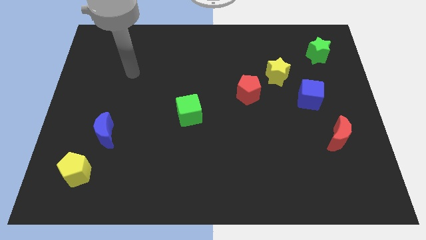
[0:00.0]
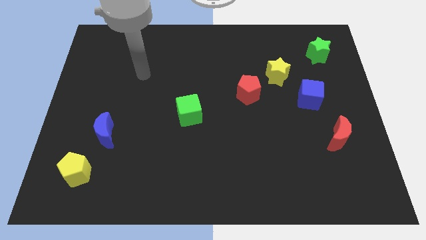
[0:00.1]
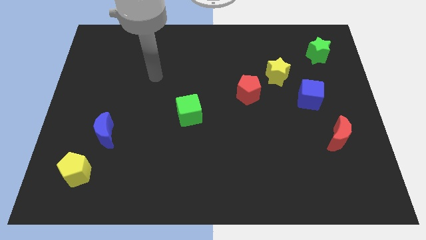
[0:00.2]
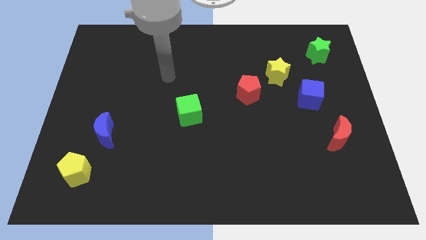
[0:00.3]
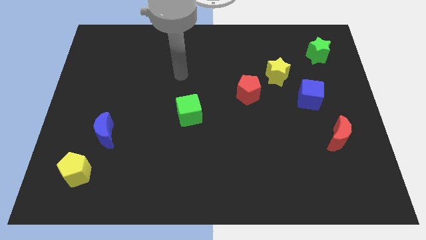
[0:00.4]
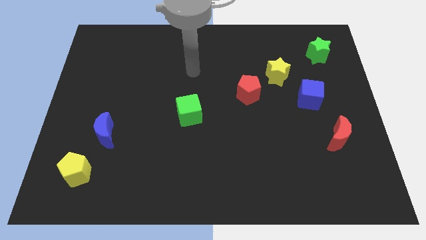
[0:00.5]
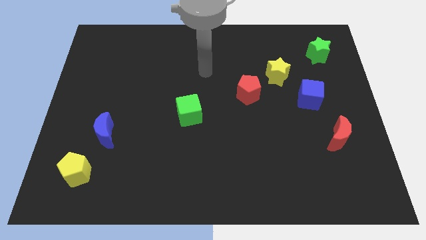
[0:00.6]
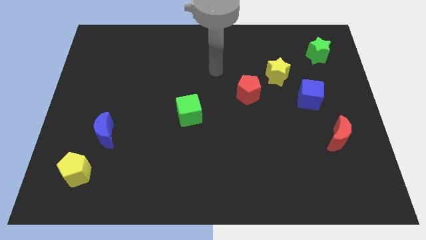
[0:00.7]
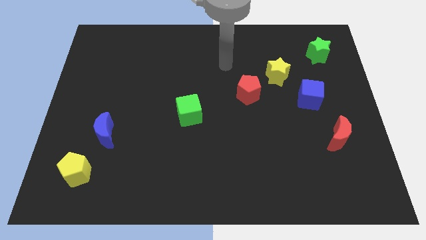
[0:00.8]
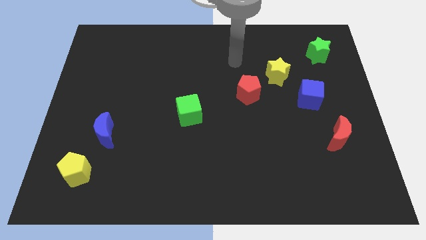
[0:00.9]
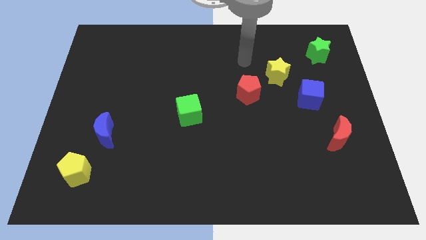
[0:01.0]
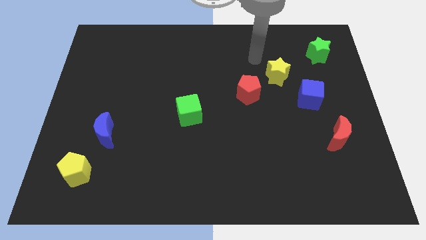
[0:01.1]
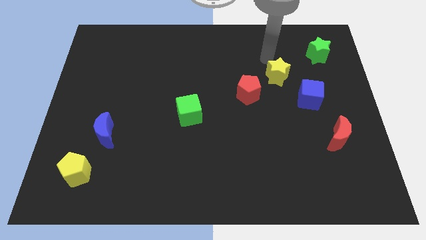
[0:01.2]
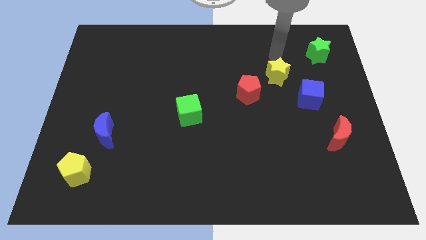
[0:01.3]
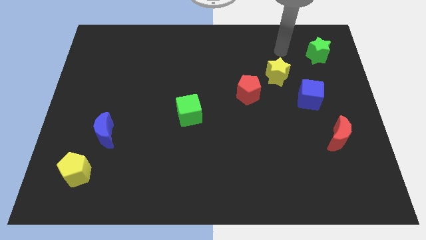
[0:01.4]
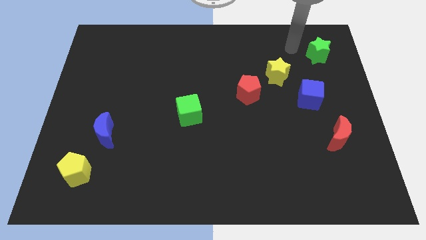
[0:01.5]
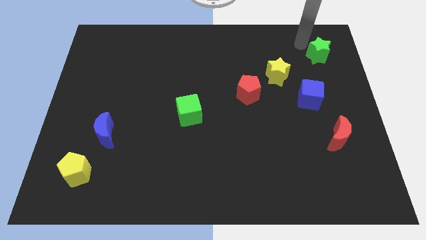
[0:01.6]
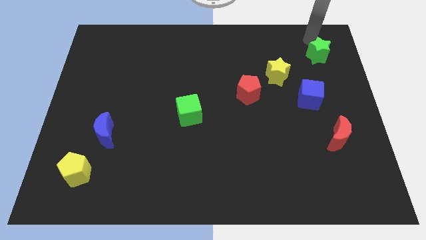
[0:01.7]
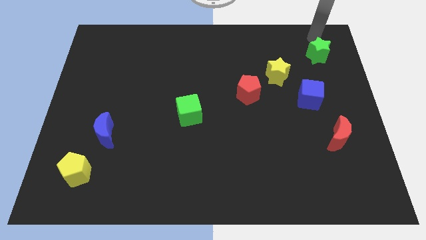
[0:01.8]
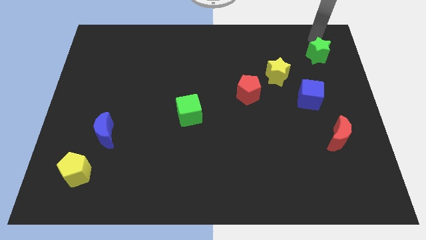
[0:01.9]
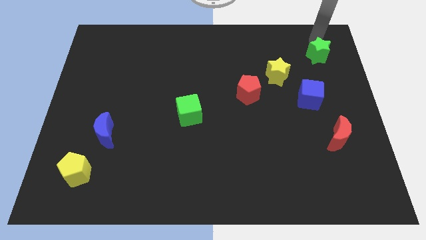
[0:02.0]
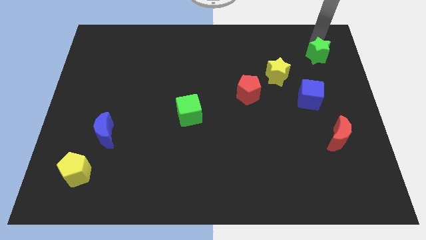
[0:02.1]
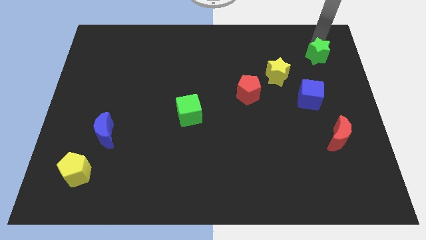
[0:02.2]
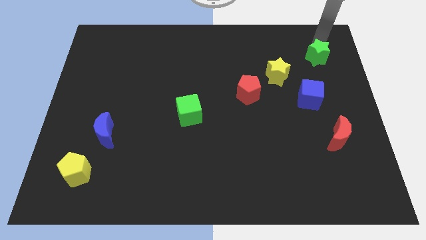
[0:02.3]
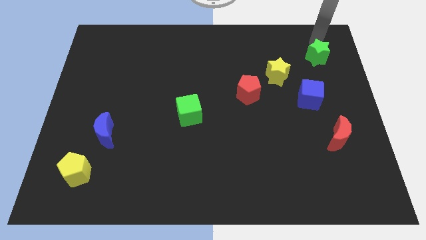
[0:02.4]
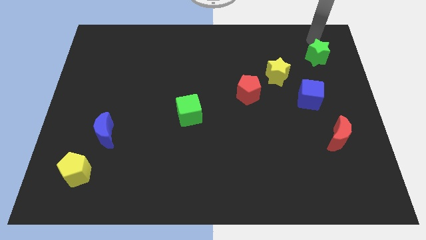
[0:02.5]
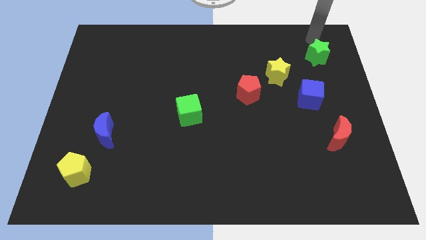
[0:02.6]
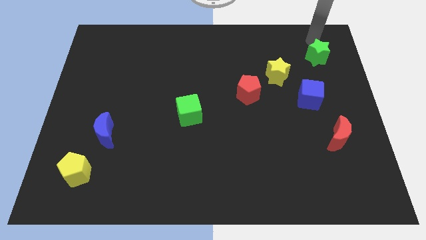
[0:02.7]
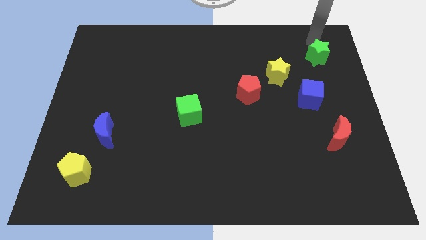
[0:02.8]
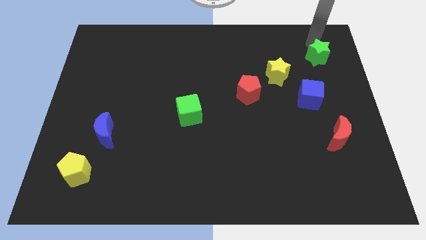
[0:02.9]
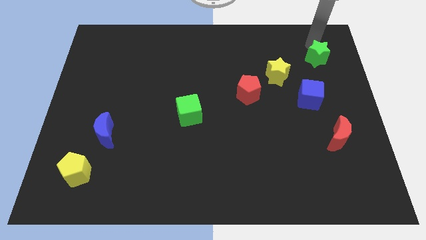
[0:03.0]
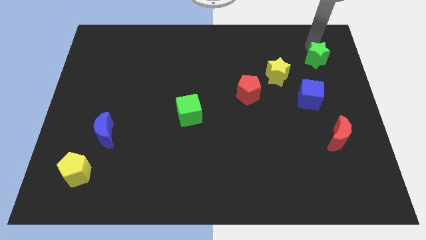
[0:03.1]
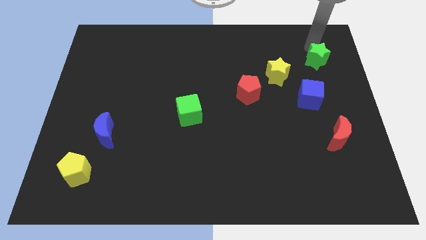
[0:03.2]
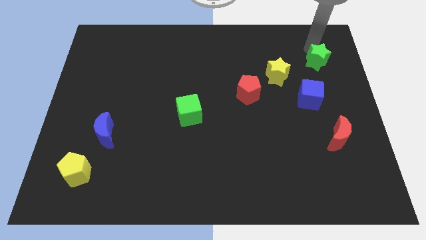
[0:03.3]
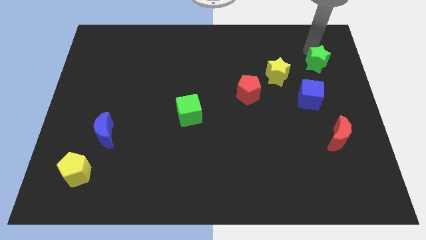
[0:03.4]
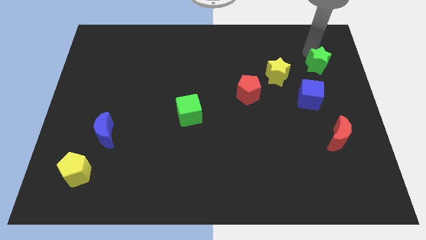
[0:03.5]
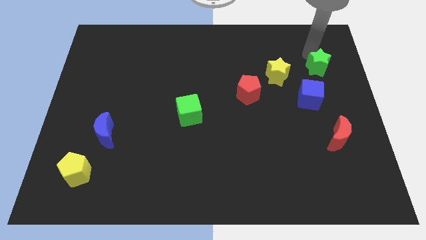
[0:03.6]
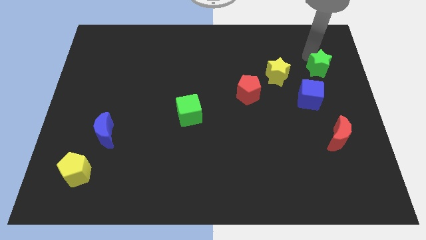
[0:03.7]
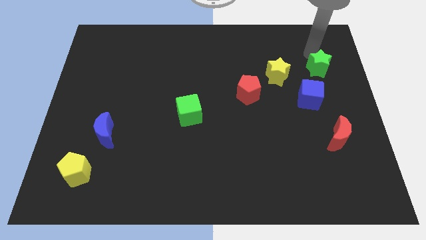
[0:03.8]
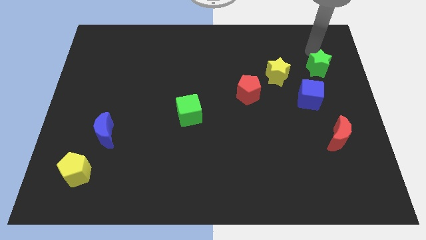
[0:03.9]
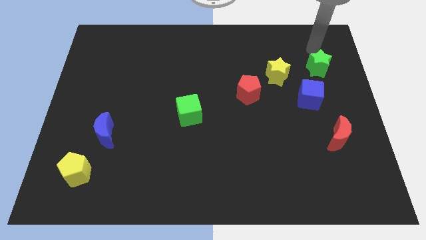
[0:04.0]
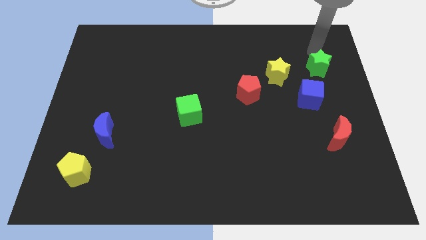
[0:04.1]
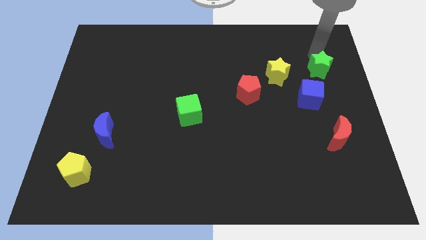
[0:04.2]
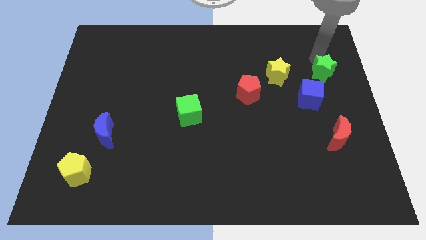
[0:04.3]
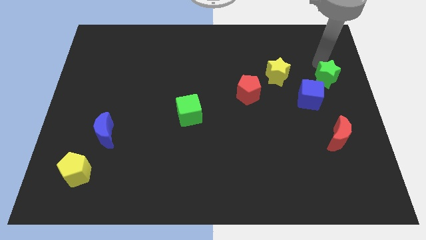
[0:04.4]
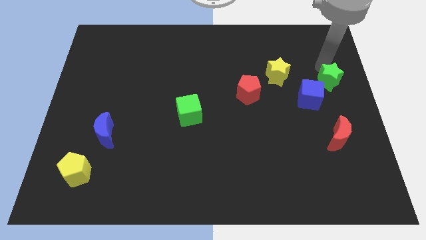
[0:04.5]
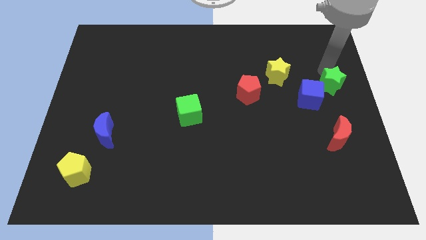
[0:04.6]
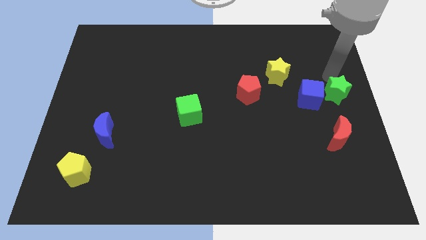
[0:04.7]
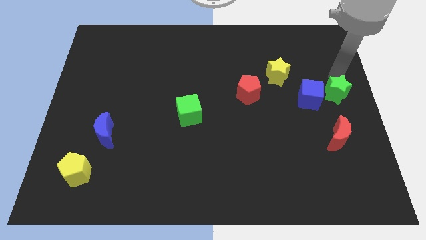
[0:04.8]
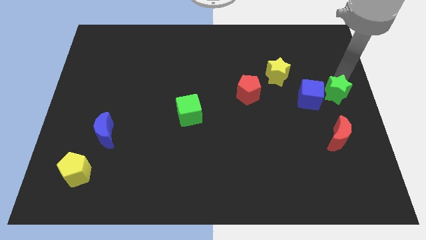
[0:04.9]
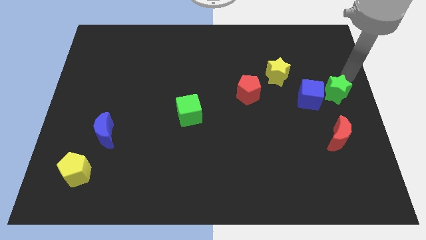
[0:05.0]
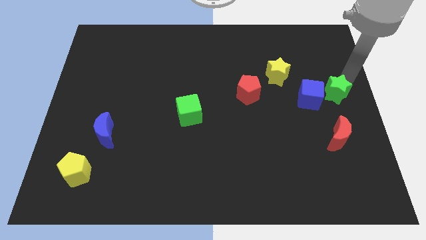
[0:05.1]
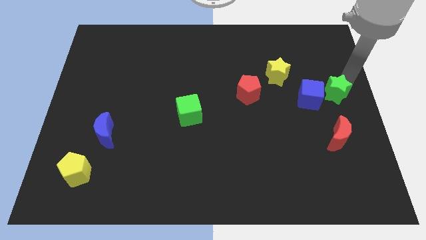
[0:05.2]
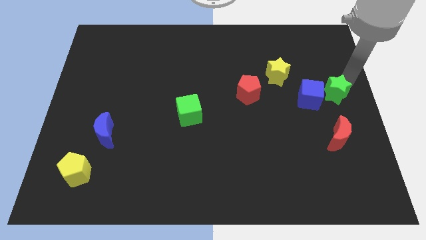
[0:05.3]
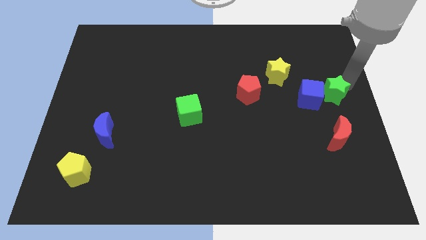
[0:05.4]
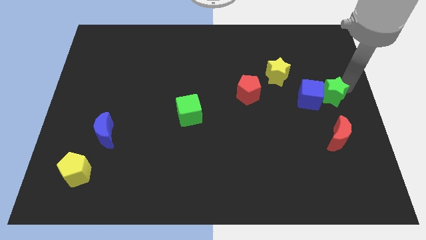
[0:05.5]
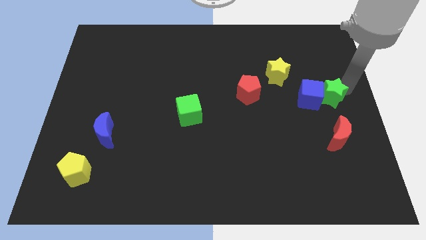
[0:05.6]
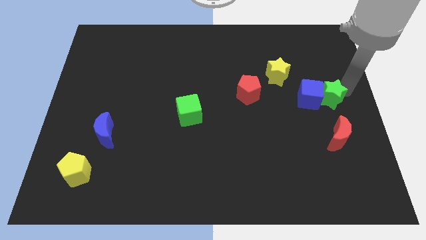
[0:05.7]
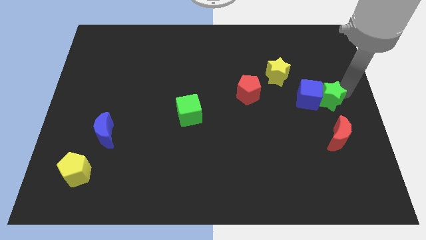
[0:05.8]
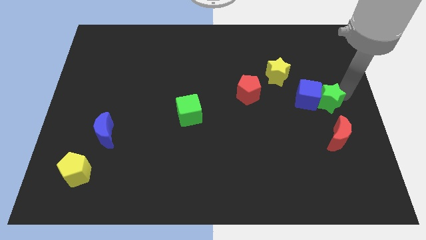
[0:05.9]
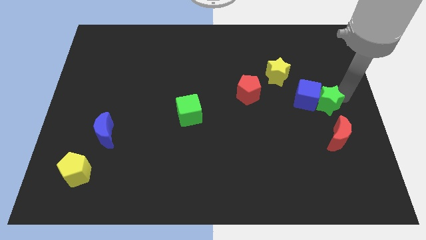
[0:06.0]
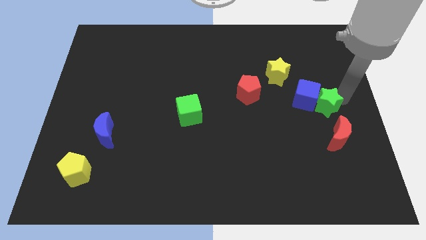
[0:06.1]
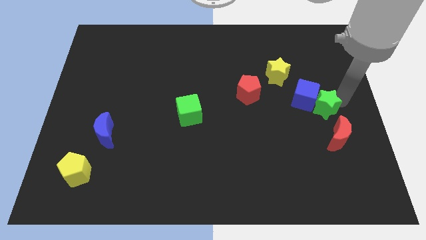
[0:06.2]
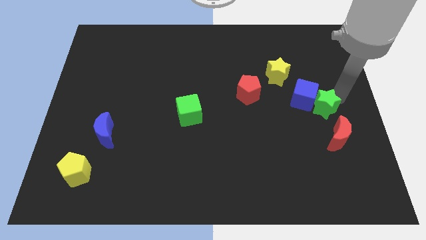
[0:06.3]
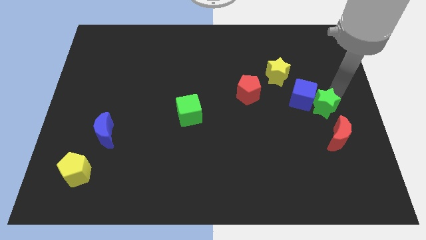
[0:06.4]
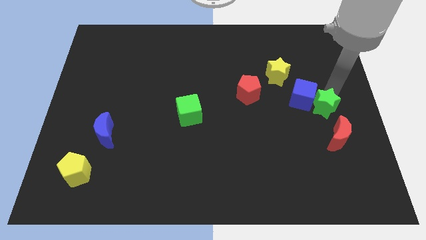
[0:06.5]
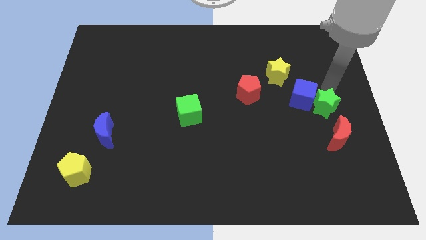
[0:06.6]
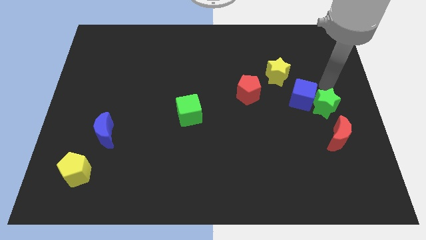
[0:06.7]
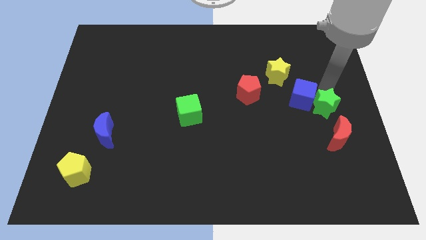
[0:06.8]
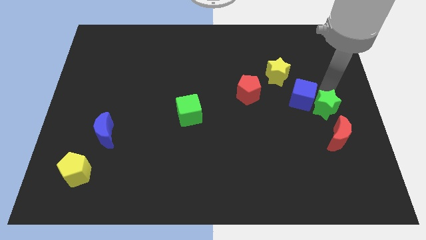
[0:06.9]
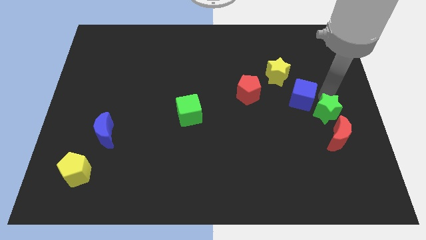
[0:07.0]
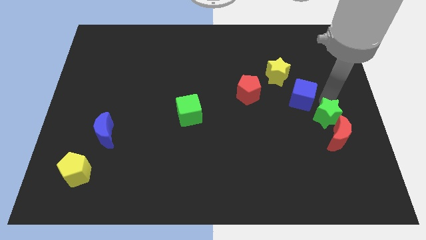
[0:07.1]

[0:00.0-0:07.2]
move the green star downwards

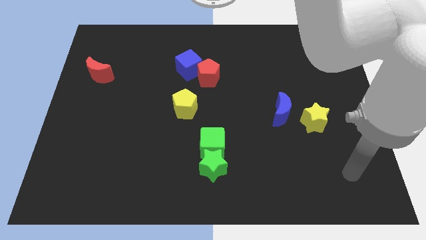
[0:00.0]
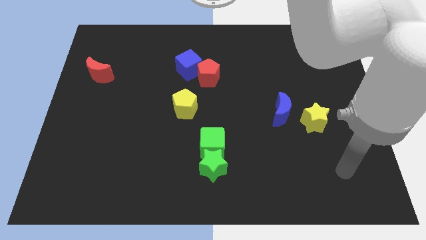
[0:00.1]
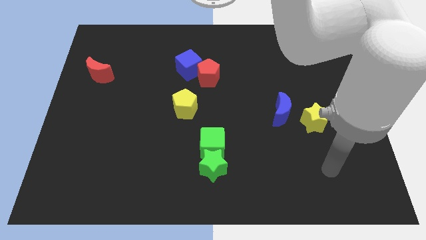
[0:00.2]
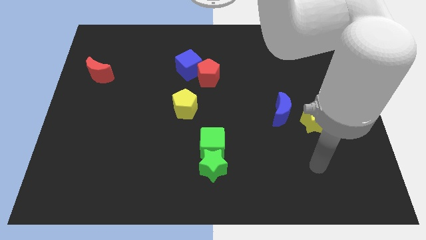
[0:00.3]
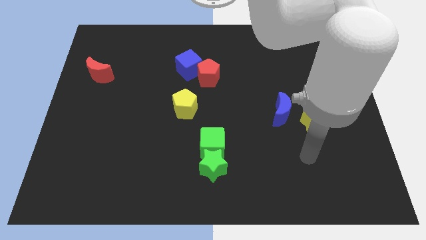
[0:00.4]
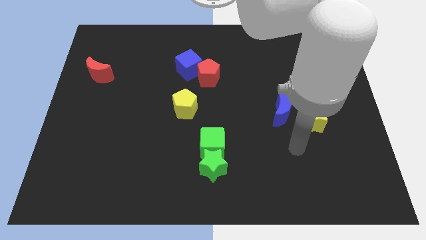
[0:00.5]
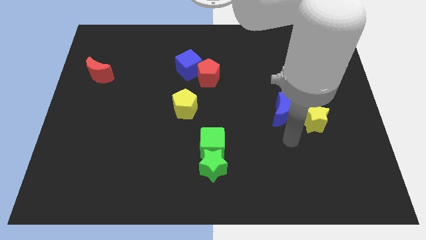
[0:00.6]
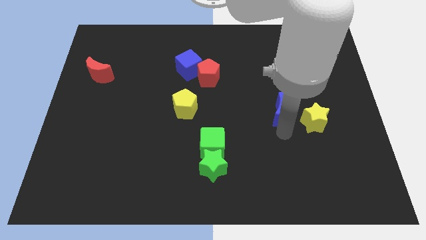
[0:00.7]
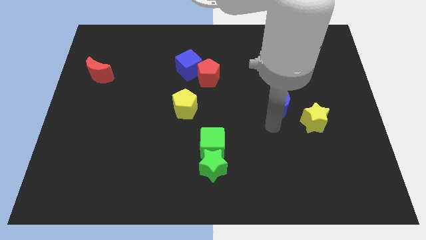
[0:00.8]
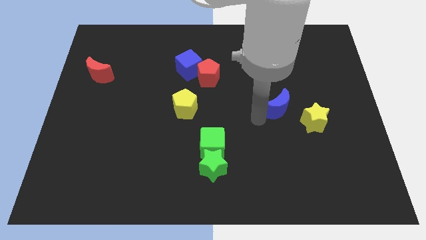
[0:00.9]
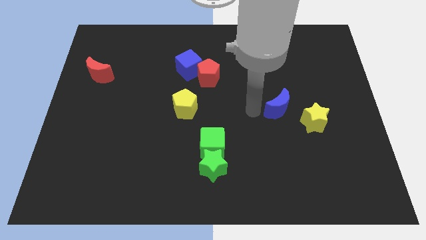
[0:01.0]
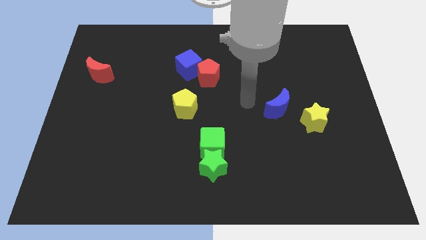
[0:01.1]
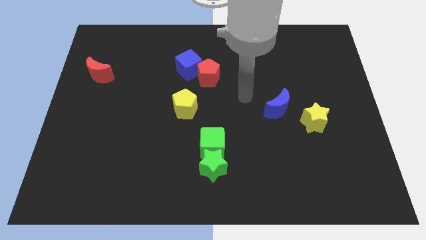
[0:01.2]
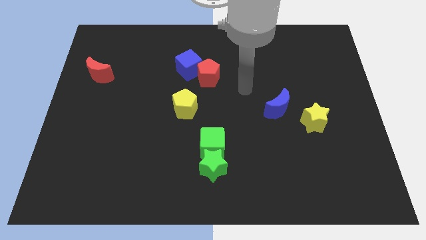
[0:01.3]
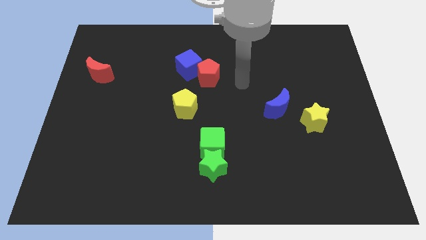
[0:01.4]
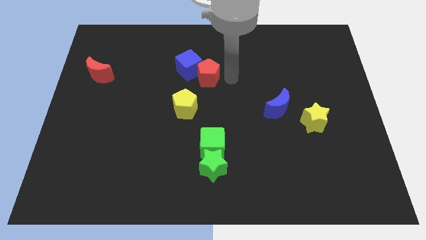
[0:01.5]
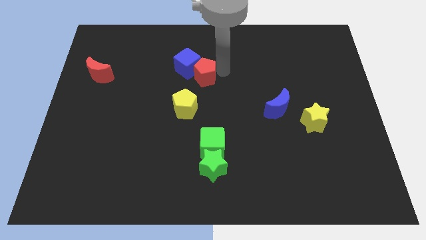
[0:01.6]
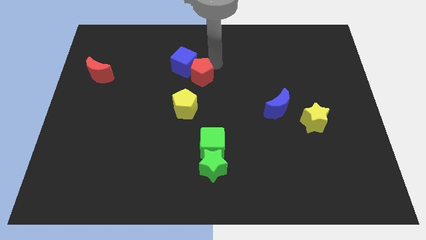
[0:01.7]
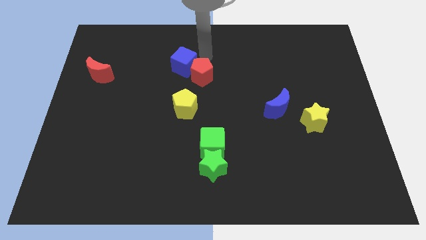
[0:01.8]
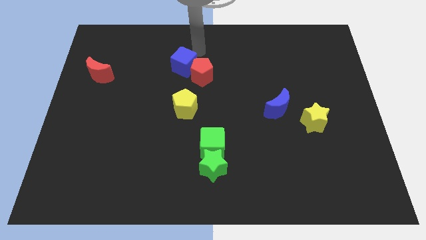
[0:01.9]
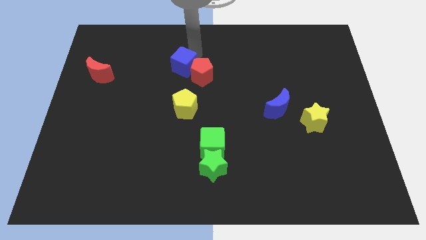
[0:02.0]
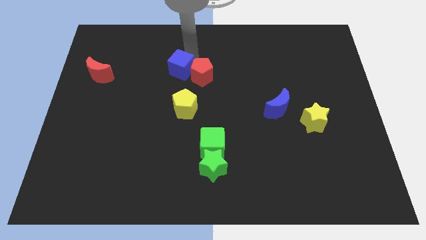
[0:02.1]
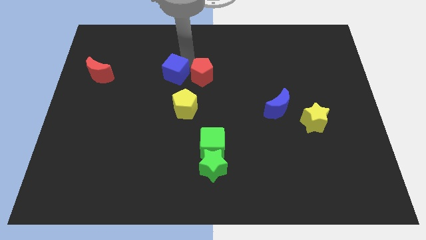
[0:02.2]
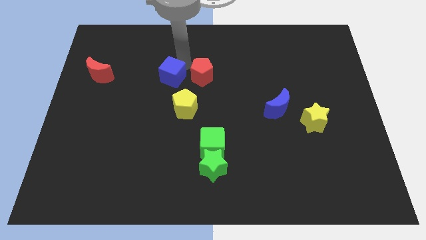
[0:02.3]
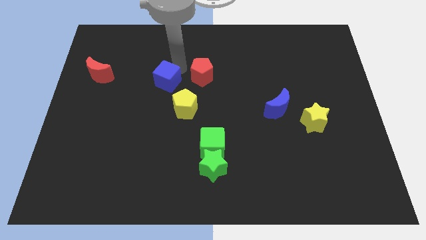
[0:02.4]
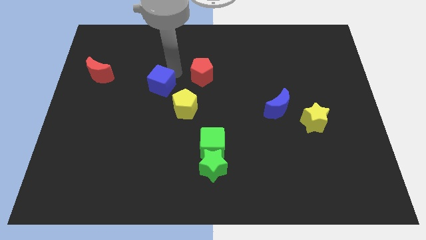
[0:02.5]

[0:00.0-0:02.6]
slide the blue cube a little bit downwards and left diagonally
